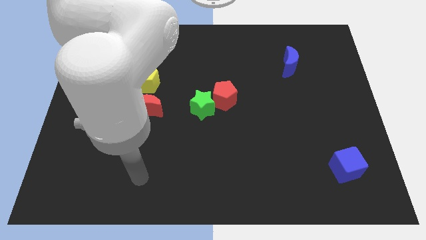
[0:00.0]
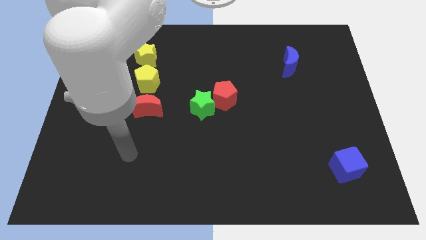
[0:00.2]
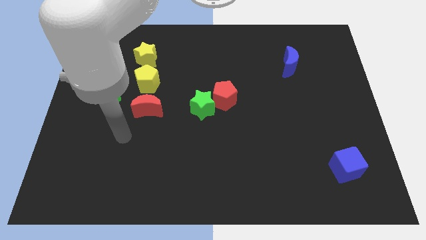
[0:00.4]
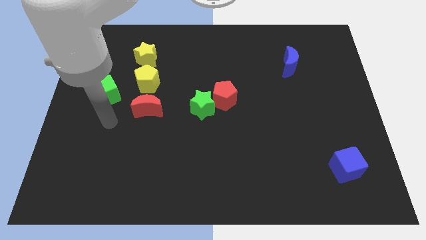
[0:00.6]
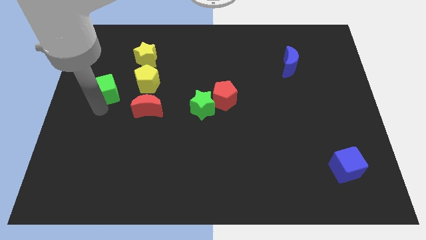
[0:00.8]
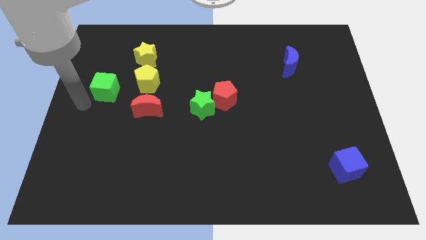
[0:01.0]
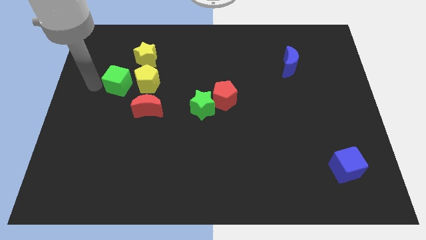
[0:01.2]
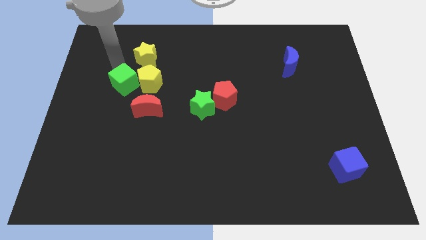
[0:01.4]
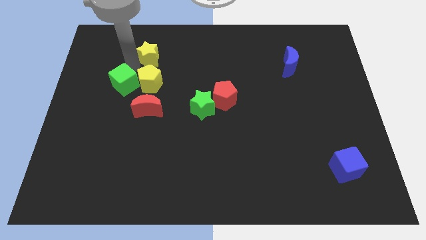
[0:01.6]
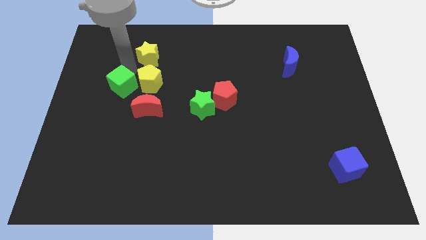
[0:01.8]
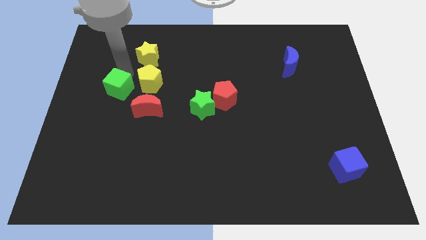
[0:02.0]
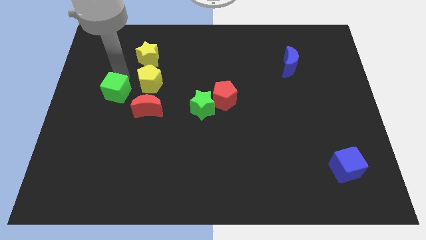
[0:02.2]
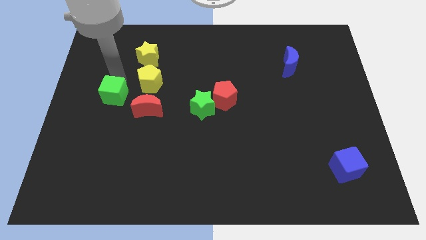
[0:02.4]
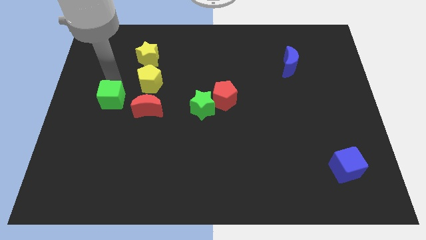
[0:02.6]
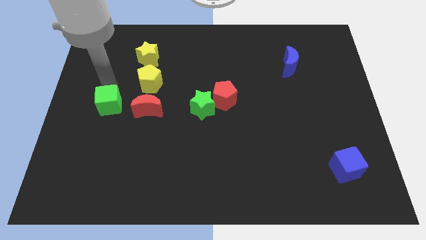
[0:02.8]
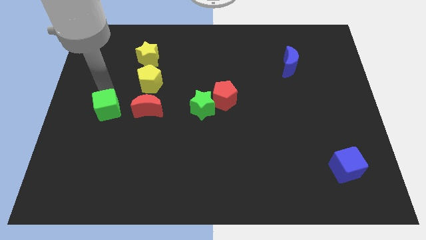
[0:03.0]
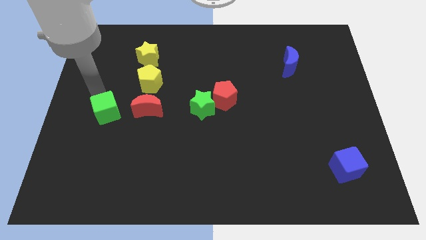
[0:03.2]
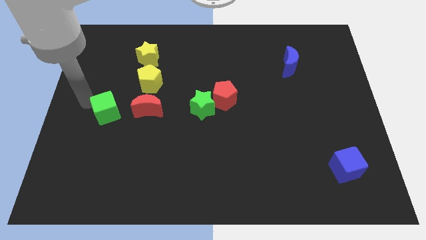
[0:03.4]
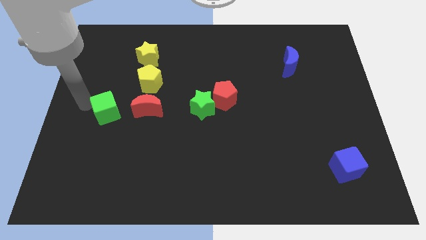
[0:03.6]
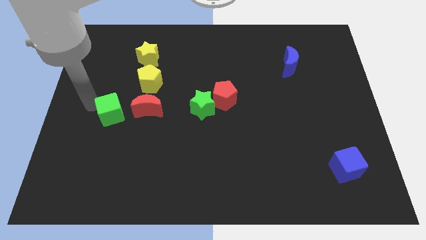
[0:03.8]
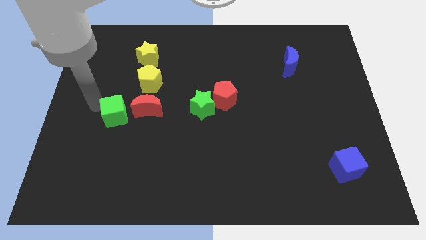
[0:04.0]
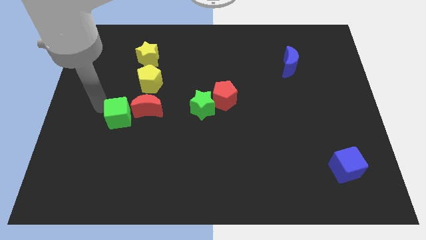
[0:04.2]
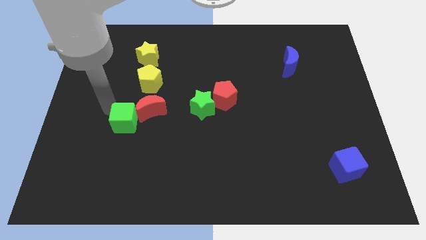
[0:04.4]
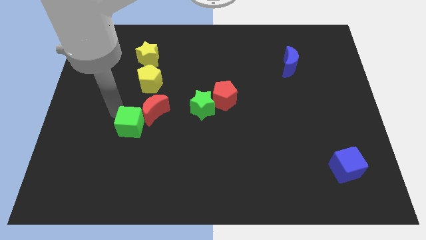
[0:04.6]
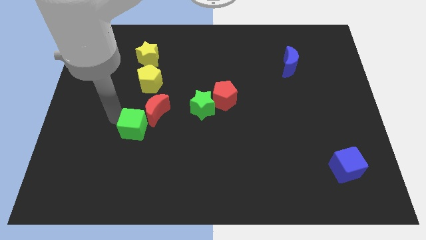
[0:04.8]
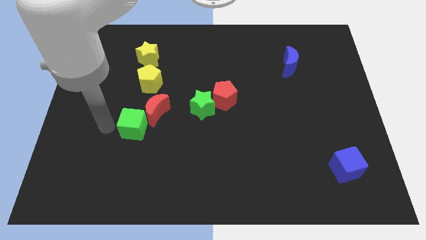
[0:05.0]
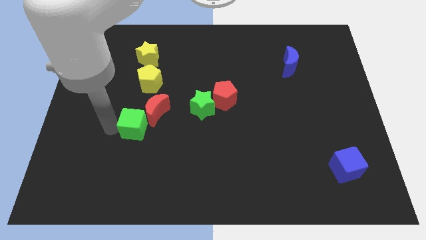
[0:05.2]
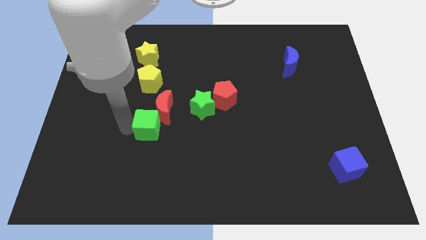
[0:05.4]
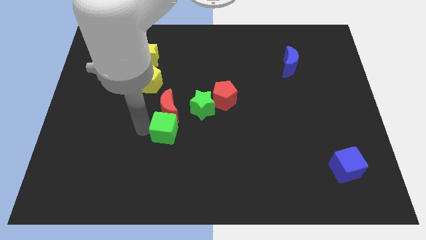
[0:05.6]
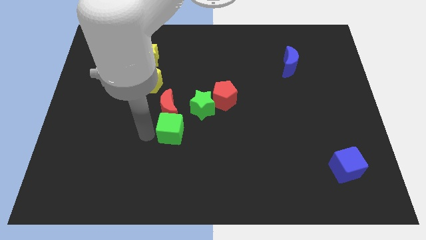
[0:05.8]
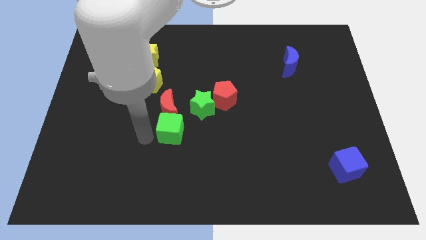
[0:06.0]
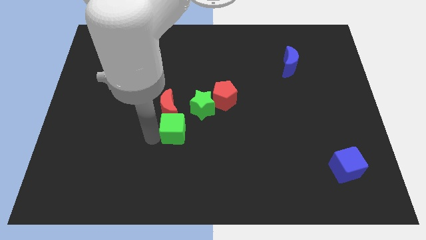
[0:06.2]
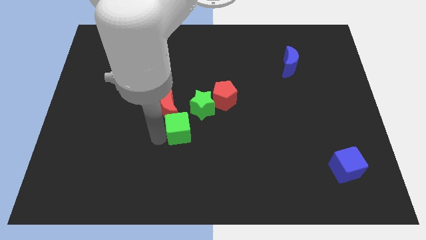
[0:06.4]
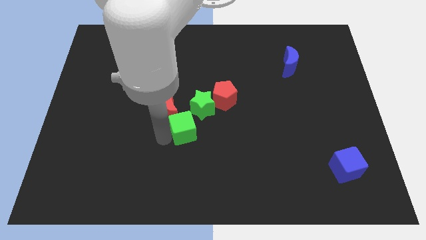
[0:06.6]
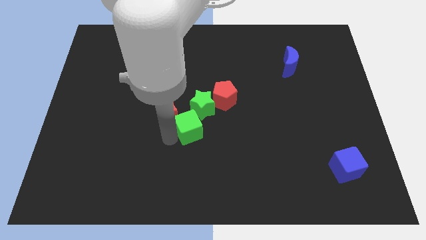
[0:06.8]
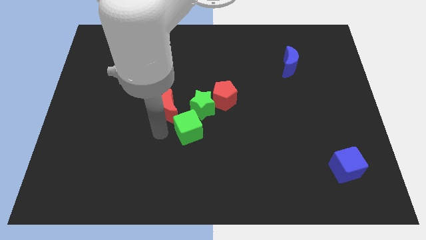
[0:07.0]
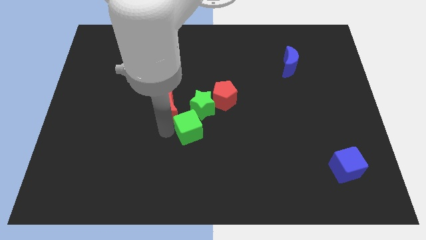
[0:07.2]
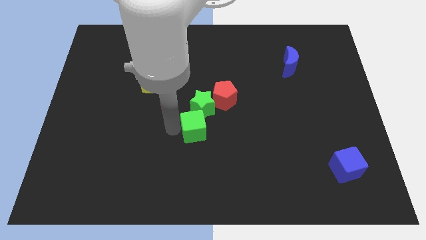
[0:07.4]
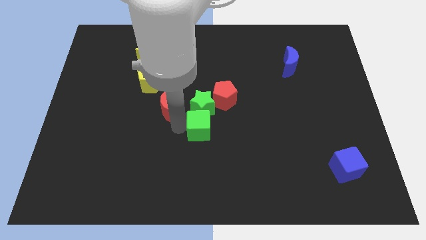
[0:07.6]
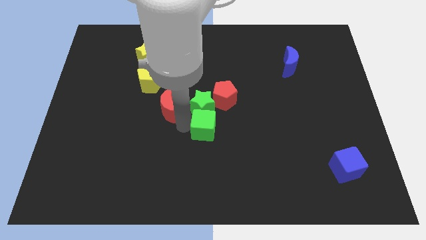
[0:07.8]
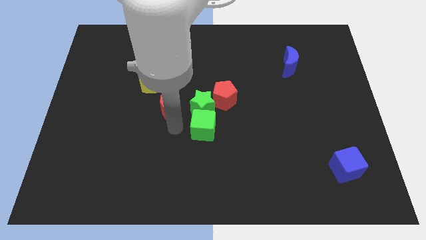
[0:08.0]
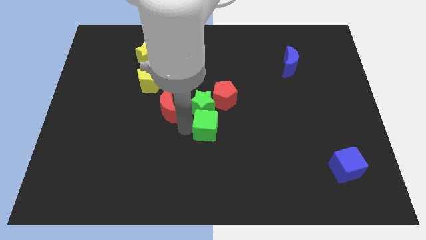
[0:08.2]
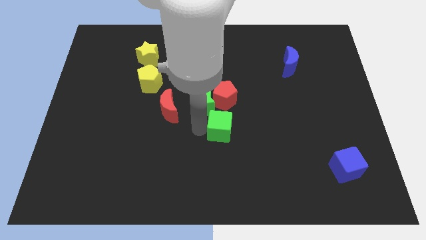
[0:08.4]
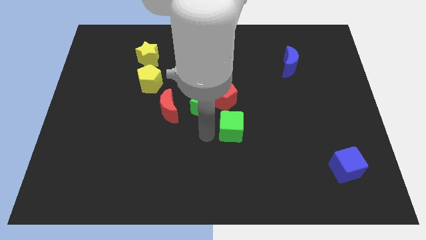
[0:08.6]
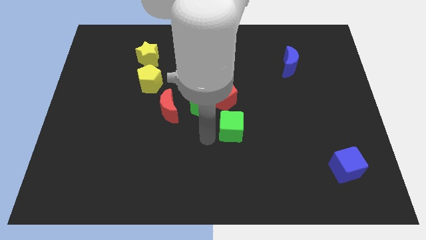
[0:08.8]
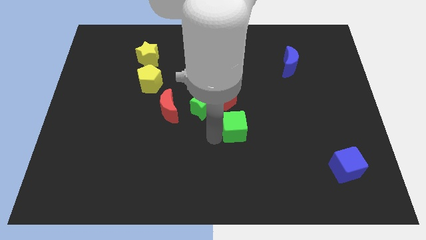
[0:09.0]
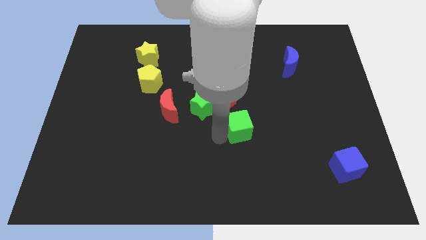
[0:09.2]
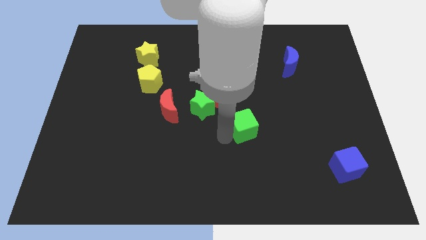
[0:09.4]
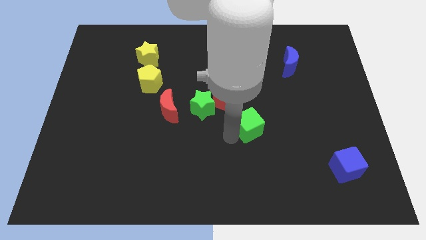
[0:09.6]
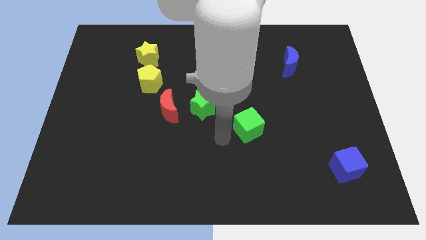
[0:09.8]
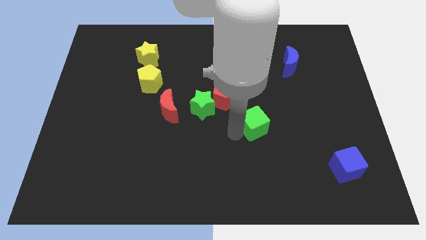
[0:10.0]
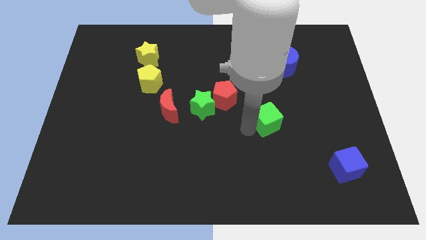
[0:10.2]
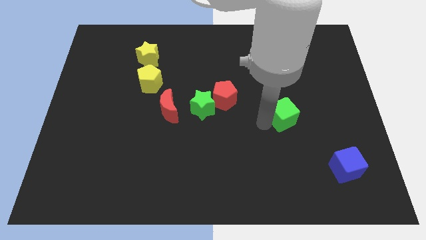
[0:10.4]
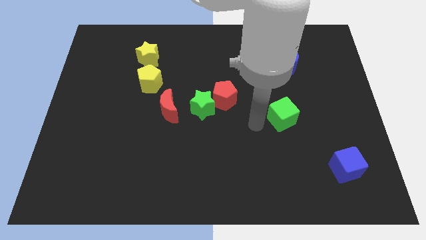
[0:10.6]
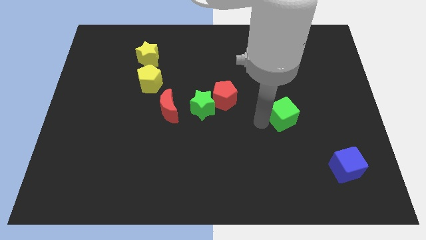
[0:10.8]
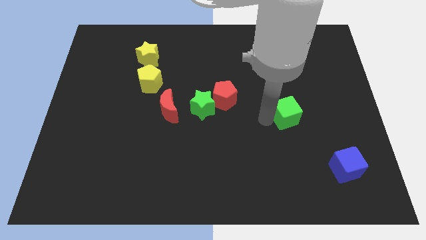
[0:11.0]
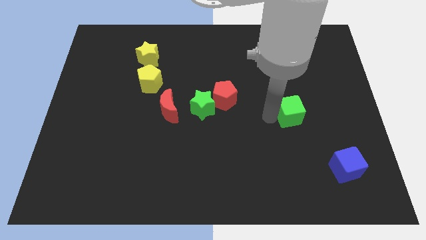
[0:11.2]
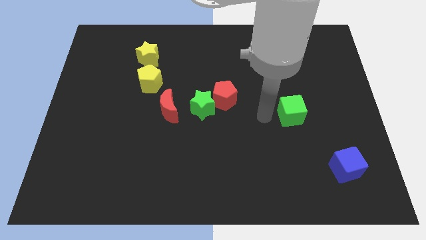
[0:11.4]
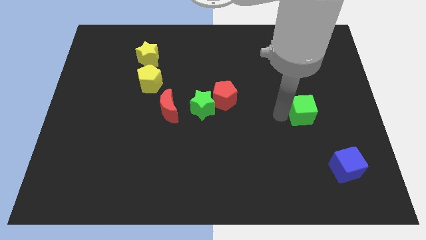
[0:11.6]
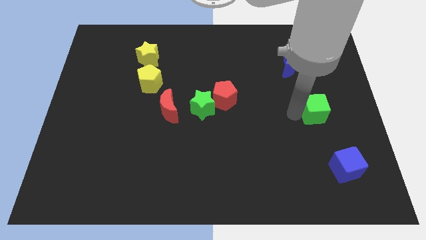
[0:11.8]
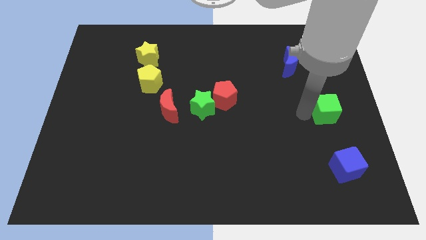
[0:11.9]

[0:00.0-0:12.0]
put the green cube to the right side of the board

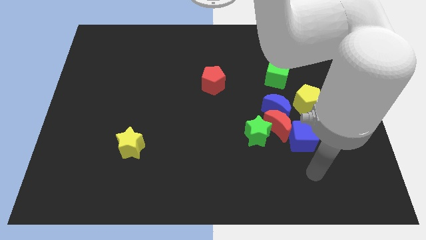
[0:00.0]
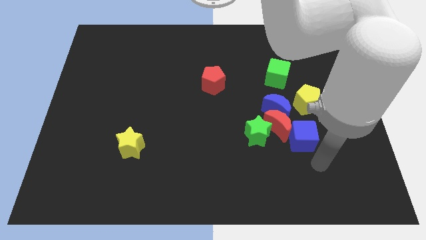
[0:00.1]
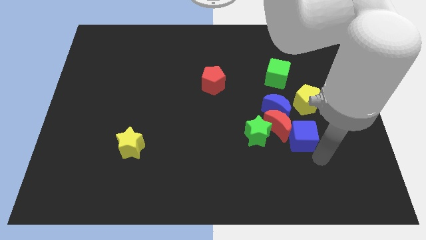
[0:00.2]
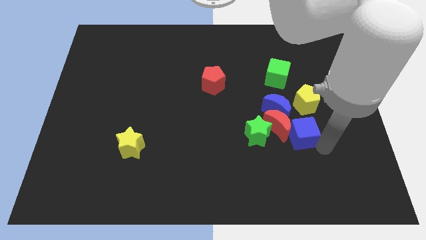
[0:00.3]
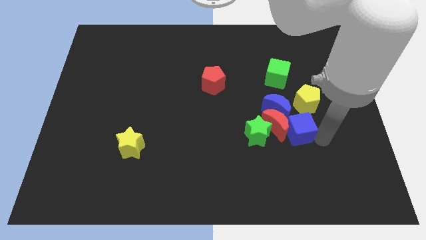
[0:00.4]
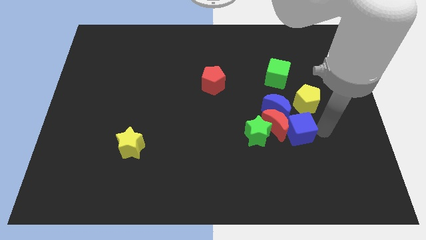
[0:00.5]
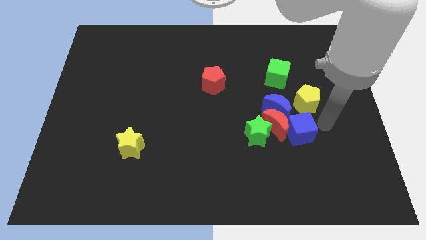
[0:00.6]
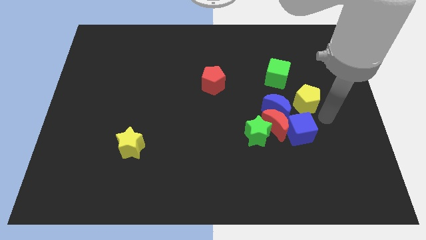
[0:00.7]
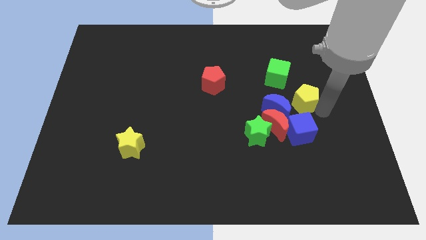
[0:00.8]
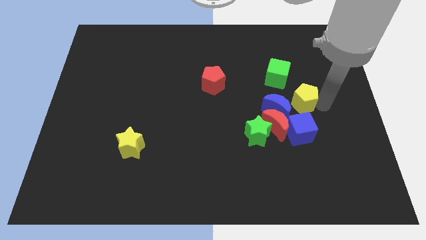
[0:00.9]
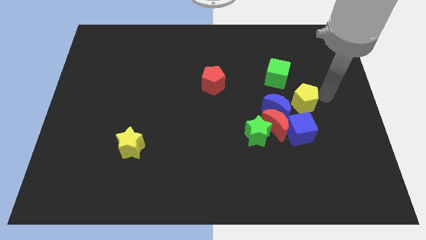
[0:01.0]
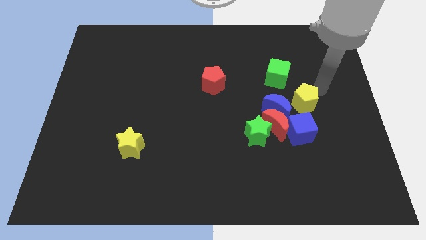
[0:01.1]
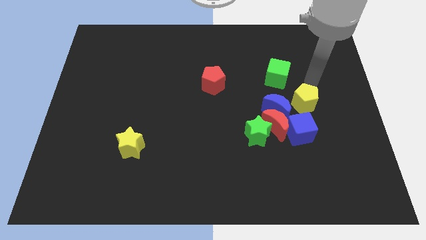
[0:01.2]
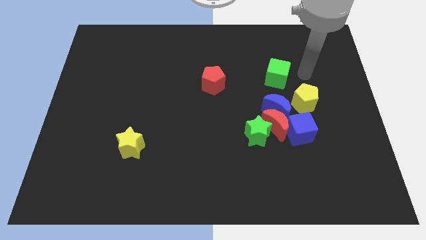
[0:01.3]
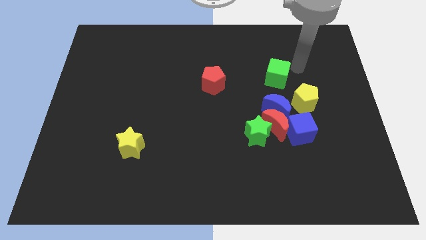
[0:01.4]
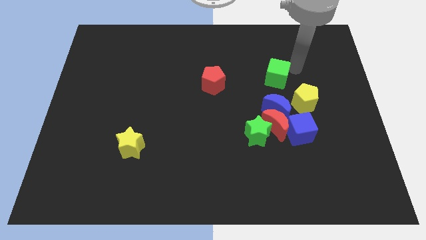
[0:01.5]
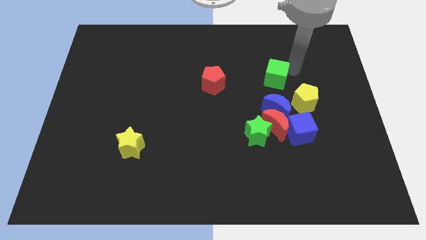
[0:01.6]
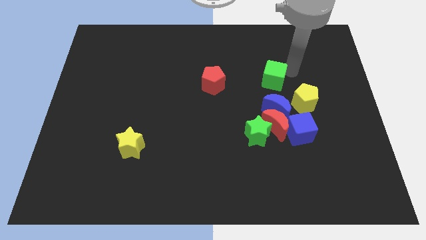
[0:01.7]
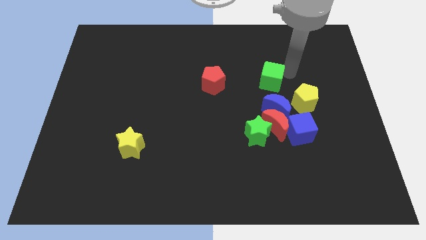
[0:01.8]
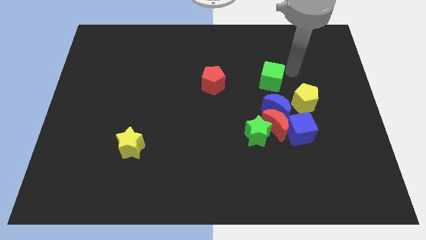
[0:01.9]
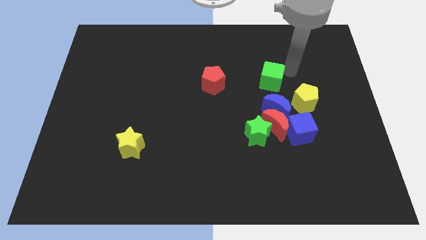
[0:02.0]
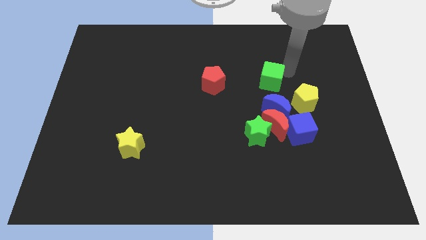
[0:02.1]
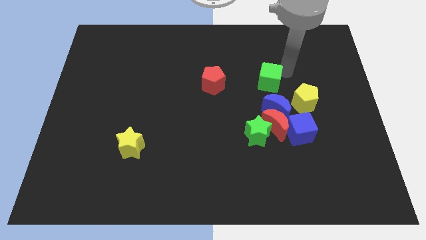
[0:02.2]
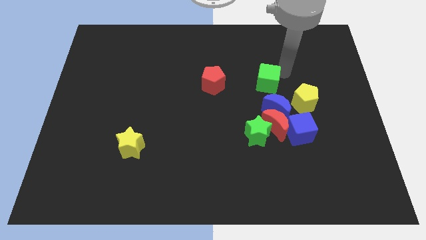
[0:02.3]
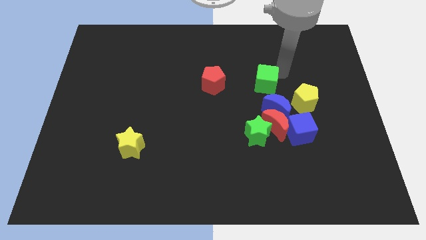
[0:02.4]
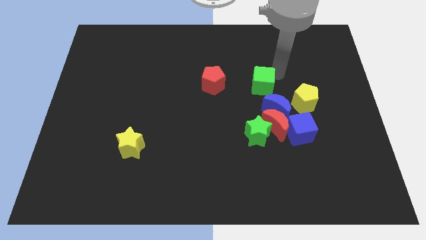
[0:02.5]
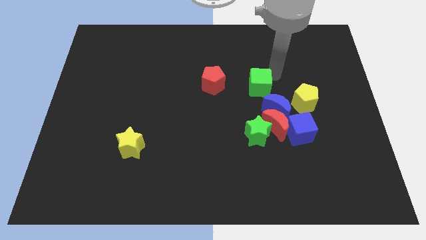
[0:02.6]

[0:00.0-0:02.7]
put the green cube to the middle of the board
